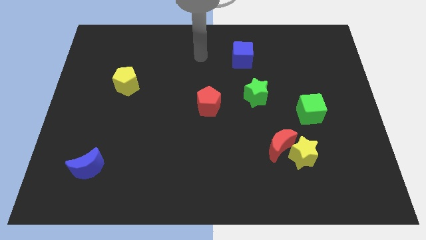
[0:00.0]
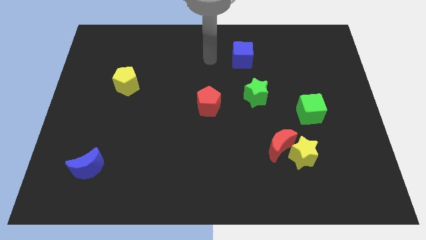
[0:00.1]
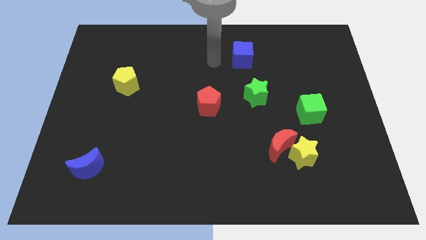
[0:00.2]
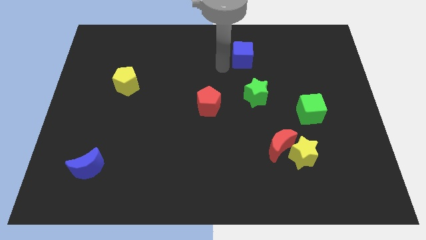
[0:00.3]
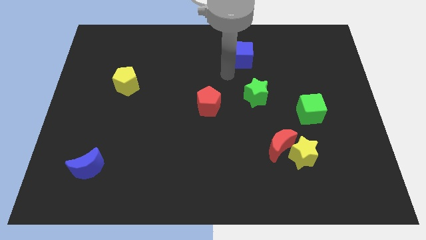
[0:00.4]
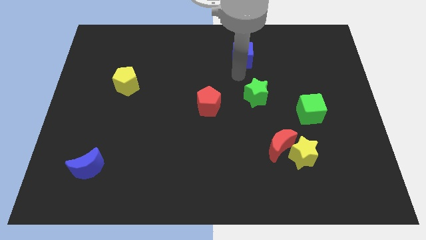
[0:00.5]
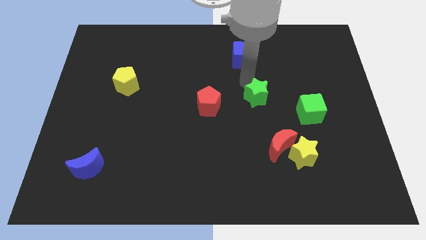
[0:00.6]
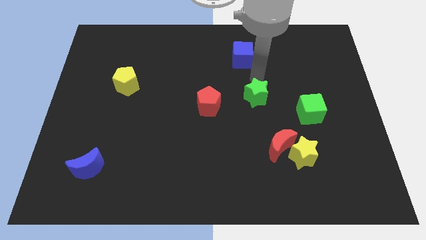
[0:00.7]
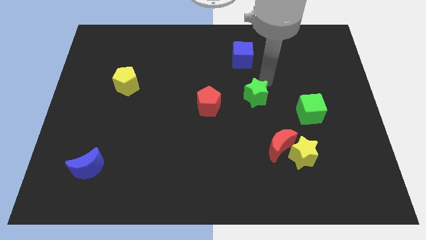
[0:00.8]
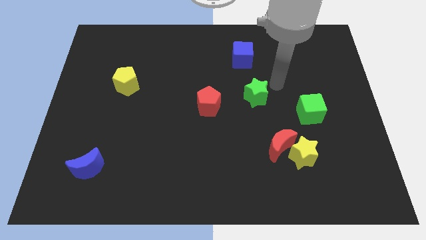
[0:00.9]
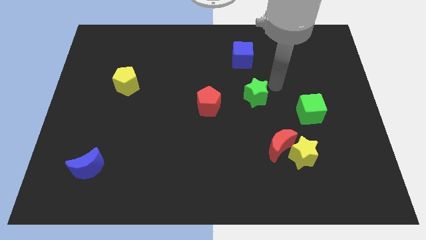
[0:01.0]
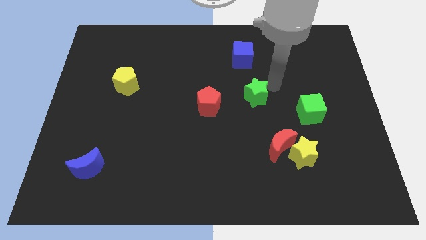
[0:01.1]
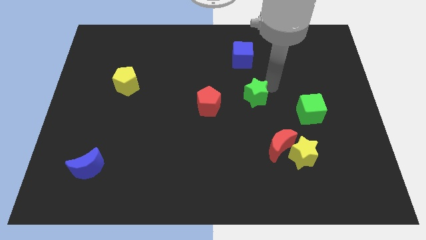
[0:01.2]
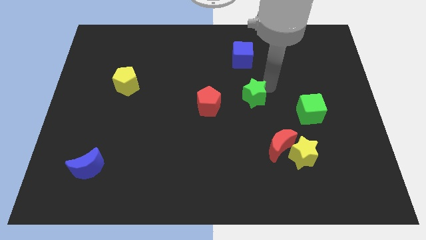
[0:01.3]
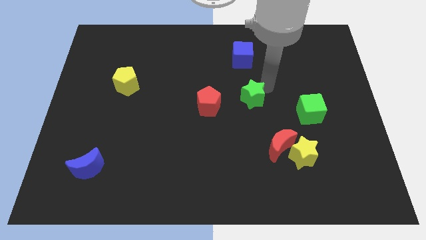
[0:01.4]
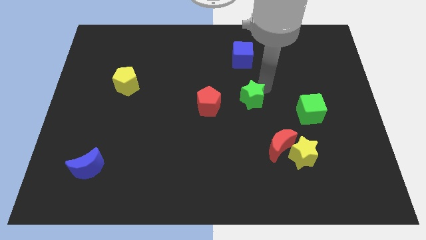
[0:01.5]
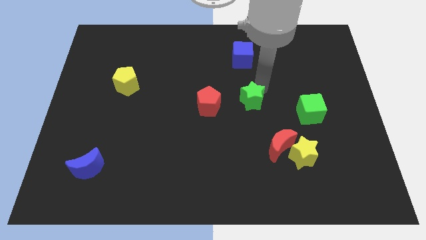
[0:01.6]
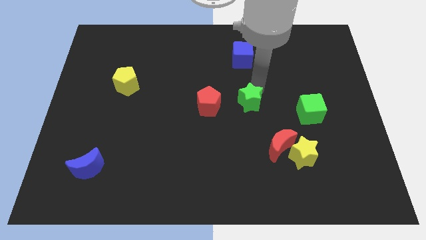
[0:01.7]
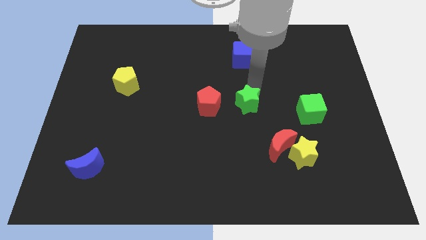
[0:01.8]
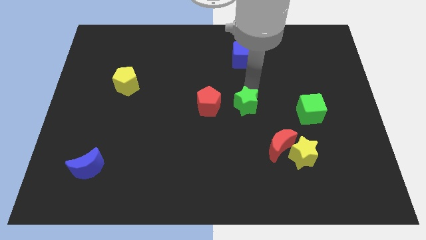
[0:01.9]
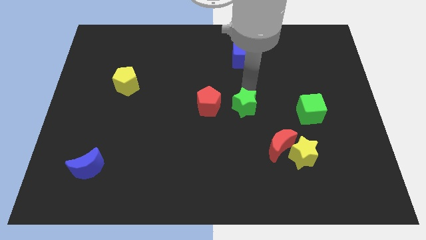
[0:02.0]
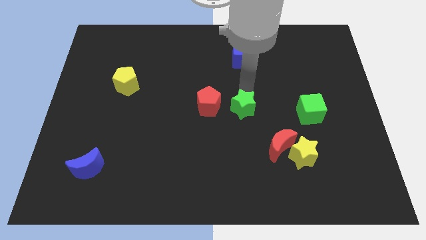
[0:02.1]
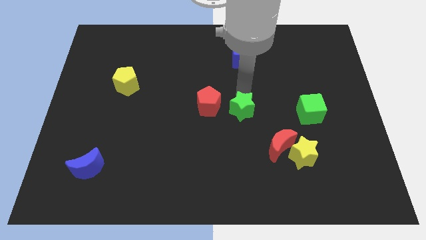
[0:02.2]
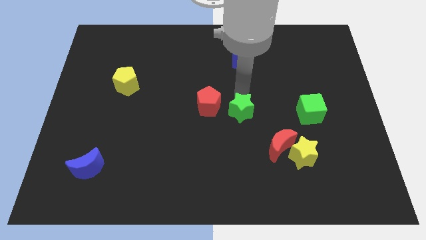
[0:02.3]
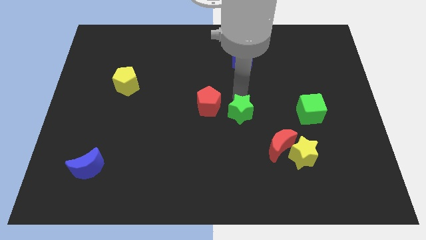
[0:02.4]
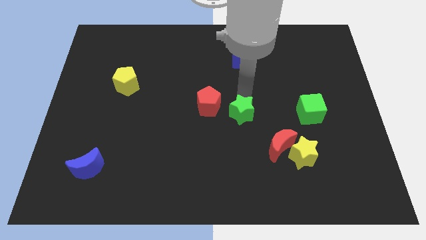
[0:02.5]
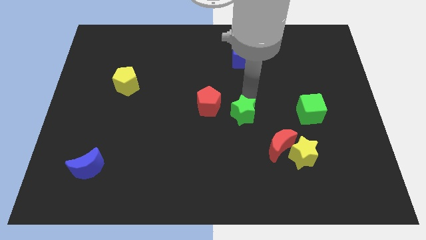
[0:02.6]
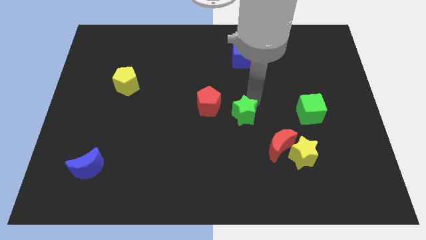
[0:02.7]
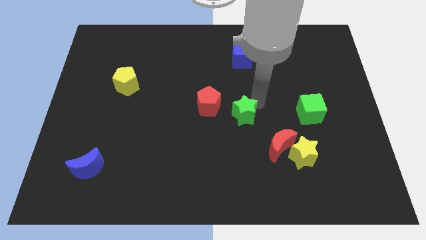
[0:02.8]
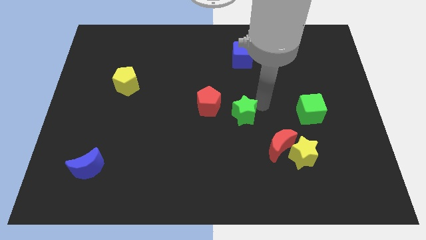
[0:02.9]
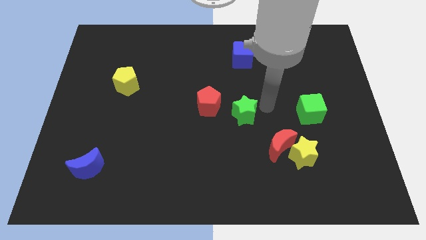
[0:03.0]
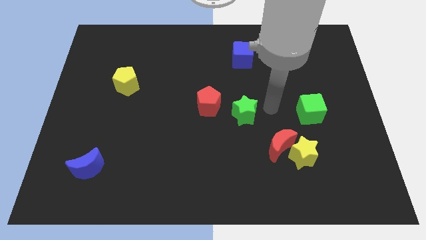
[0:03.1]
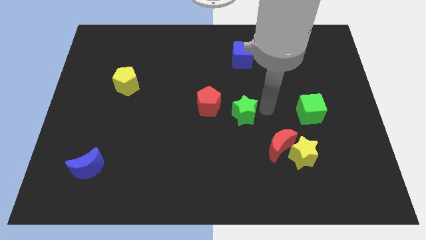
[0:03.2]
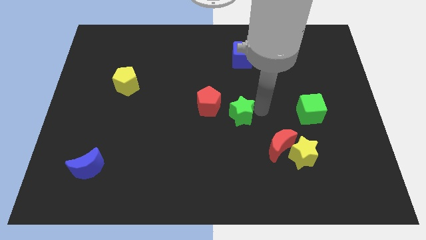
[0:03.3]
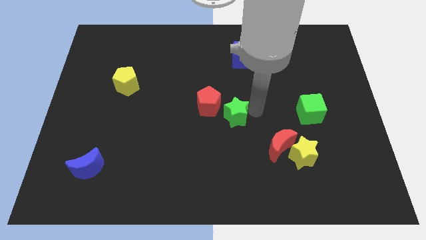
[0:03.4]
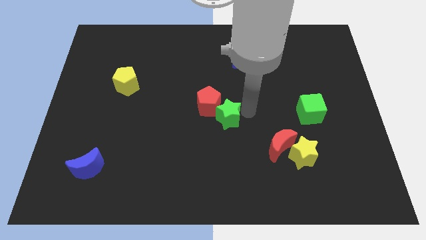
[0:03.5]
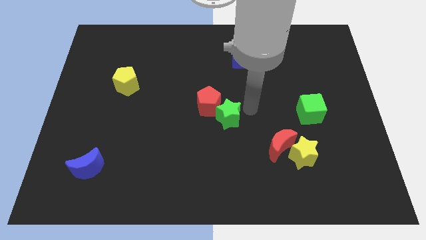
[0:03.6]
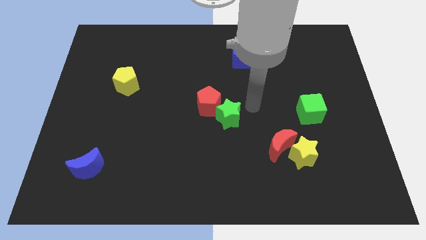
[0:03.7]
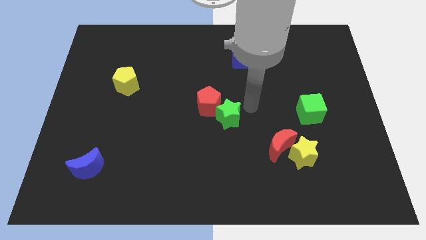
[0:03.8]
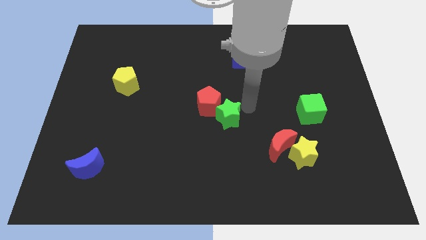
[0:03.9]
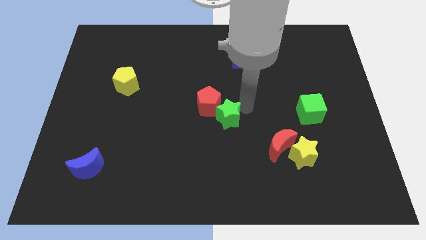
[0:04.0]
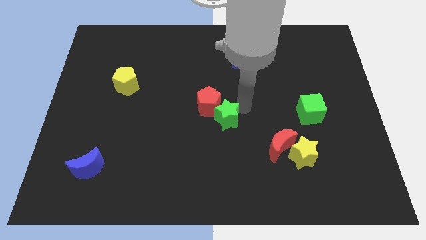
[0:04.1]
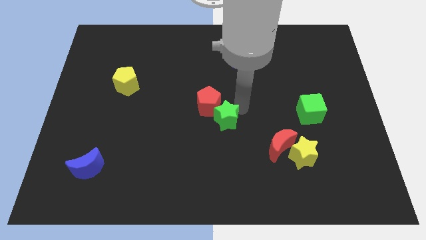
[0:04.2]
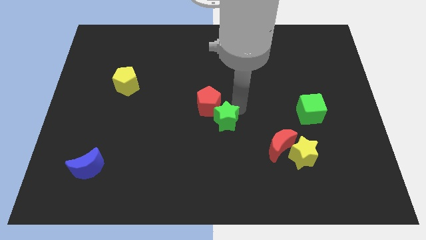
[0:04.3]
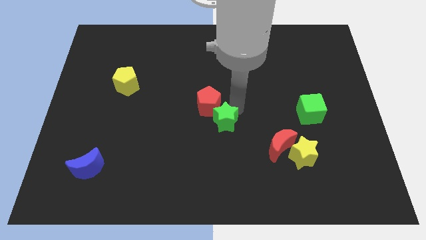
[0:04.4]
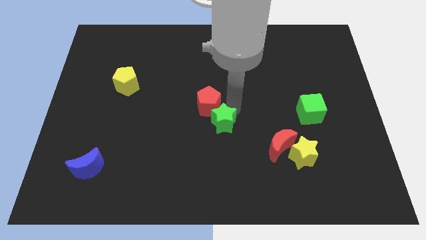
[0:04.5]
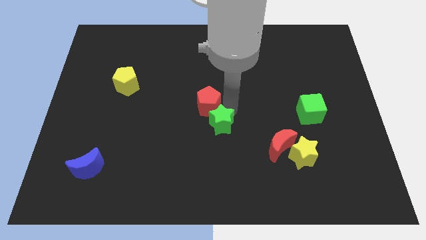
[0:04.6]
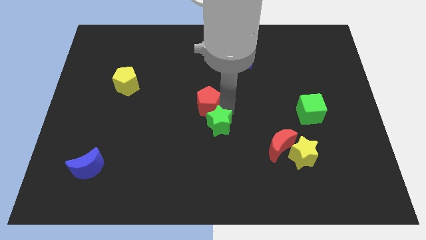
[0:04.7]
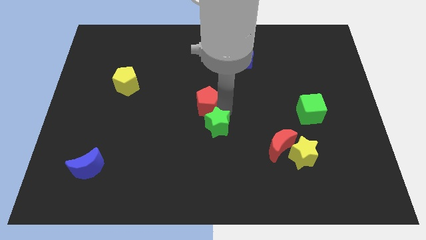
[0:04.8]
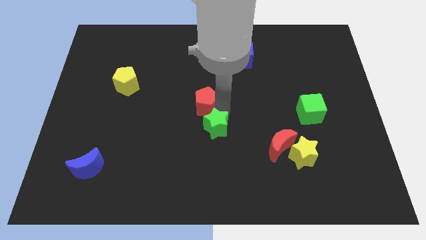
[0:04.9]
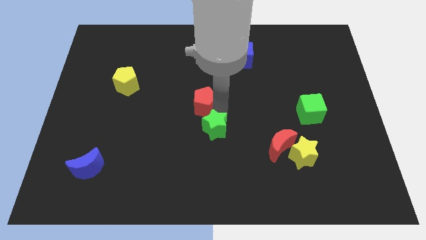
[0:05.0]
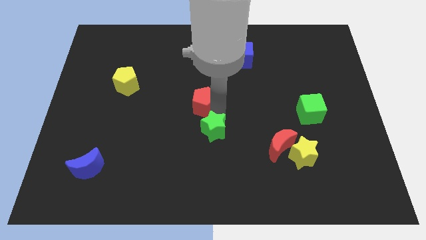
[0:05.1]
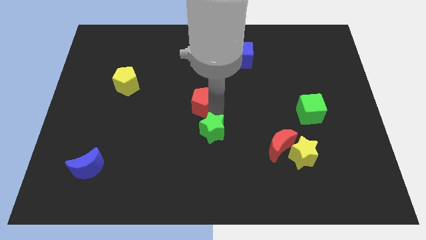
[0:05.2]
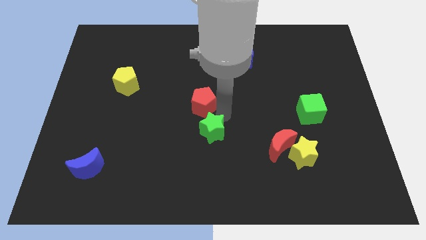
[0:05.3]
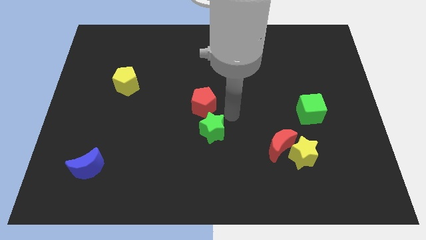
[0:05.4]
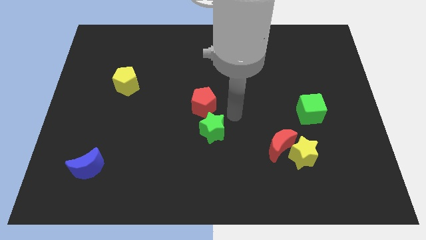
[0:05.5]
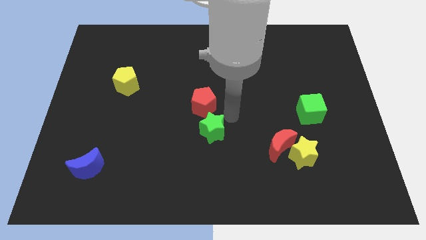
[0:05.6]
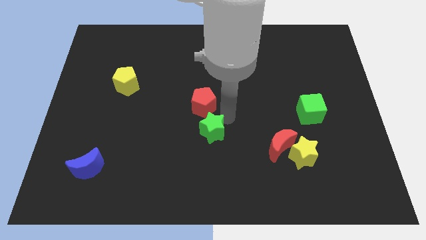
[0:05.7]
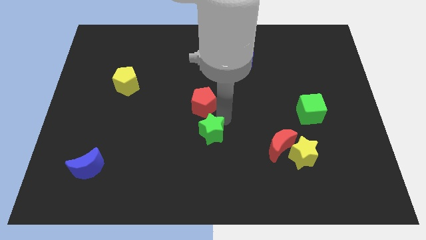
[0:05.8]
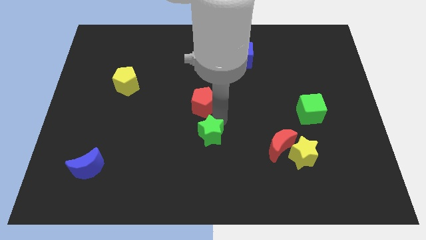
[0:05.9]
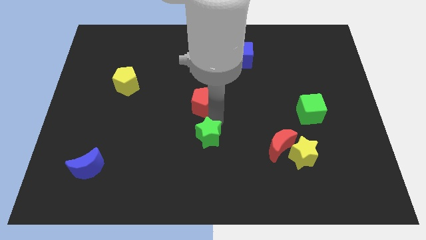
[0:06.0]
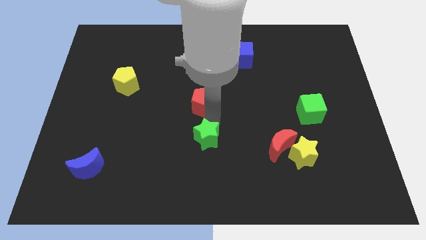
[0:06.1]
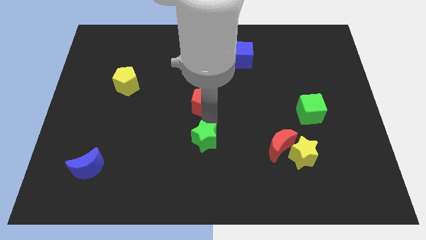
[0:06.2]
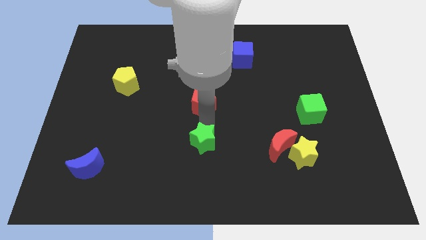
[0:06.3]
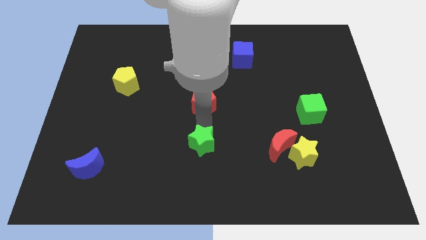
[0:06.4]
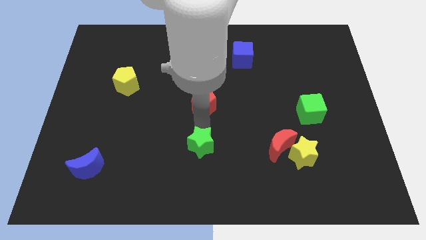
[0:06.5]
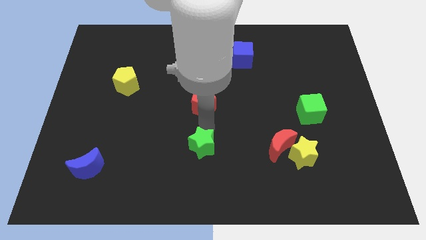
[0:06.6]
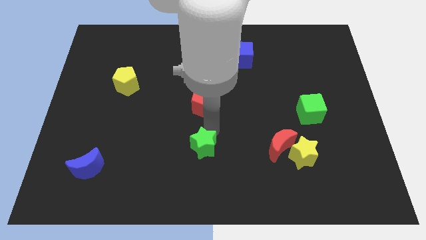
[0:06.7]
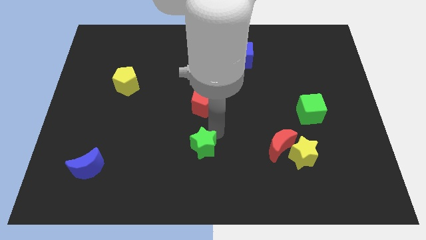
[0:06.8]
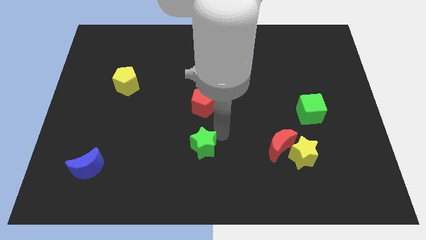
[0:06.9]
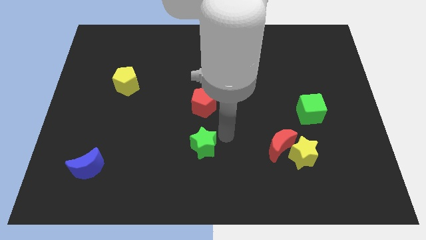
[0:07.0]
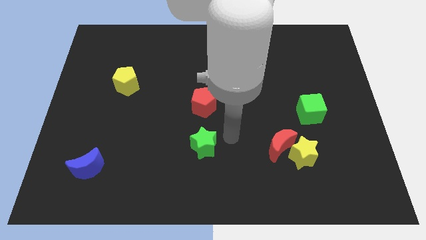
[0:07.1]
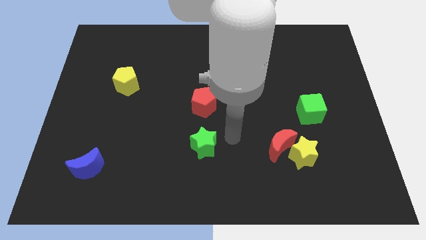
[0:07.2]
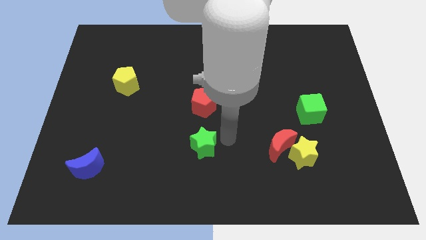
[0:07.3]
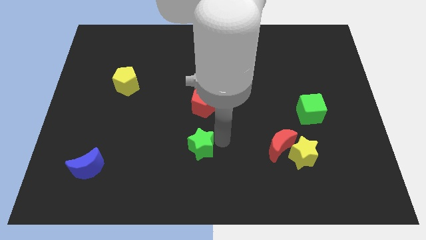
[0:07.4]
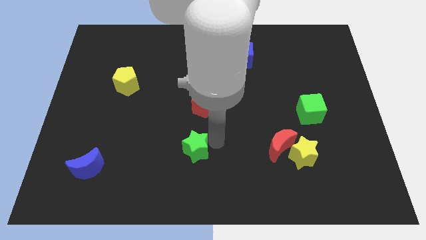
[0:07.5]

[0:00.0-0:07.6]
push the green star diagonally down and left

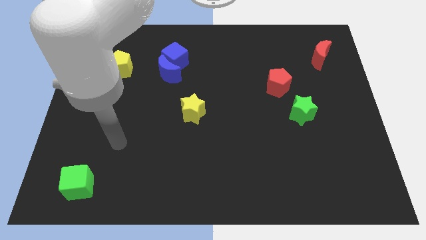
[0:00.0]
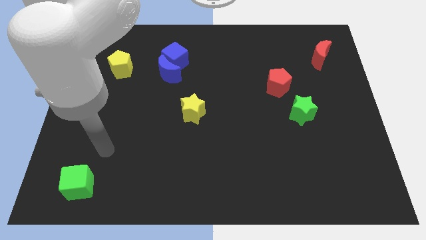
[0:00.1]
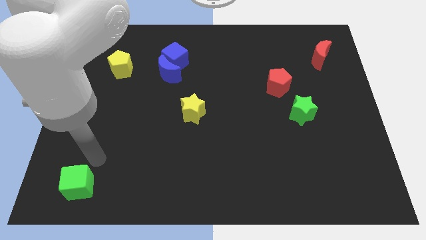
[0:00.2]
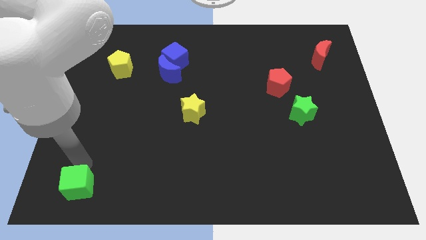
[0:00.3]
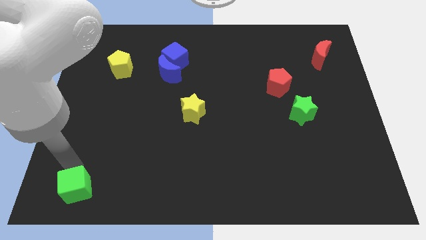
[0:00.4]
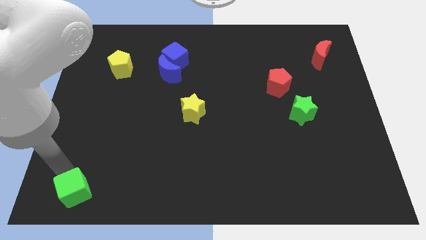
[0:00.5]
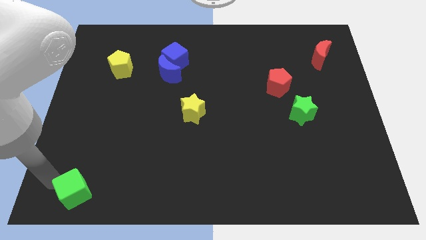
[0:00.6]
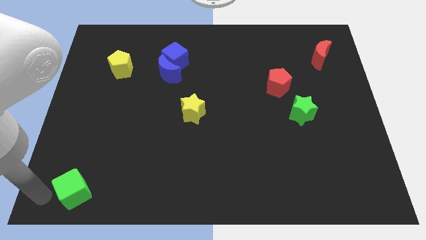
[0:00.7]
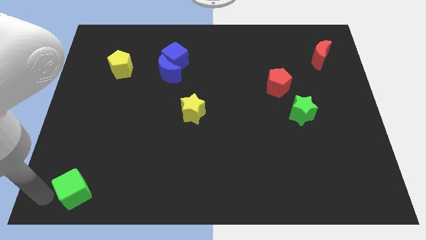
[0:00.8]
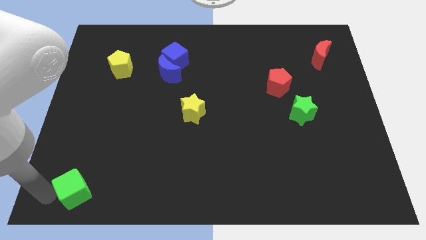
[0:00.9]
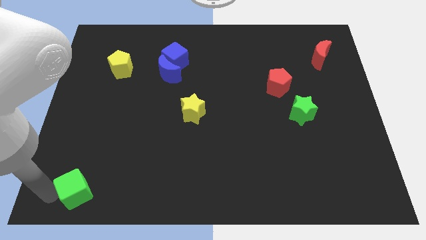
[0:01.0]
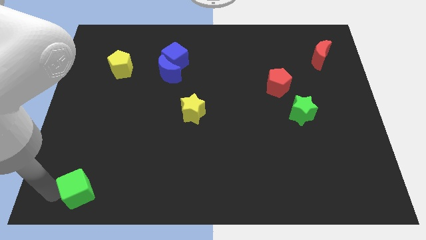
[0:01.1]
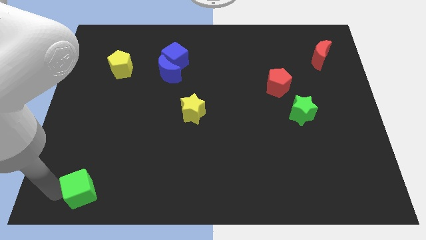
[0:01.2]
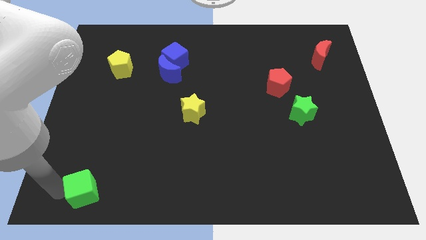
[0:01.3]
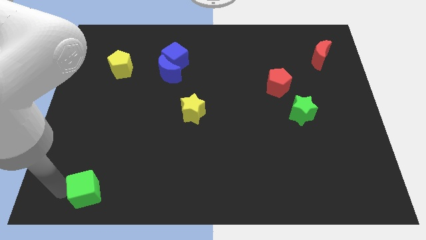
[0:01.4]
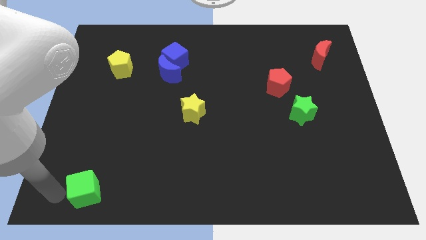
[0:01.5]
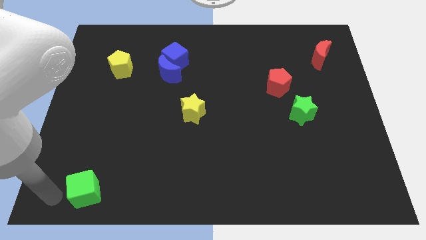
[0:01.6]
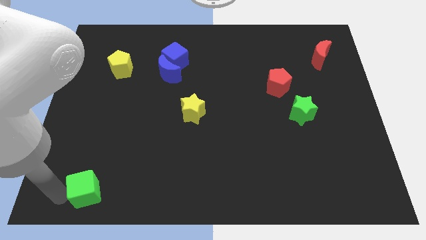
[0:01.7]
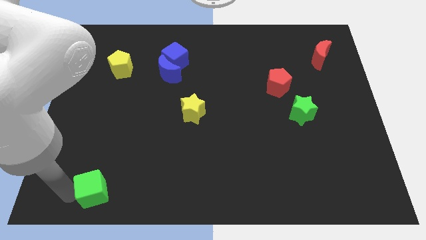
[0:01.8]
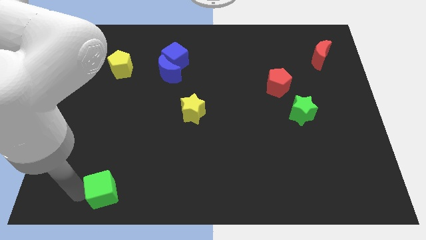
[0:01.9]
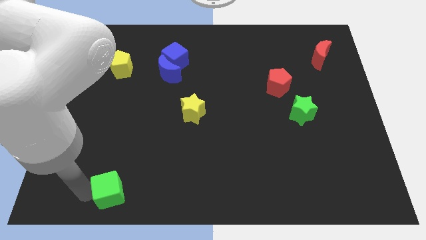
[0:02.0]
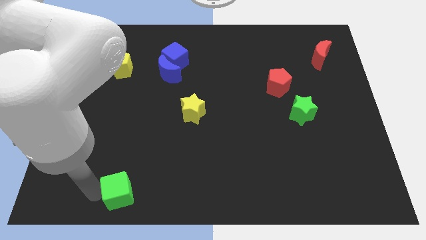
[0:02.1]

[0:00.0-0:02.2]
slightly push the green cube right
